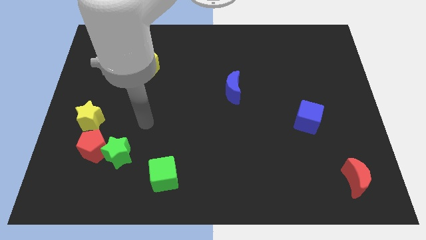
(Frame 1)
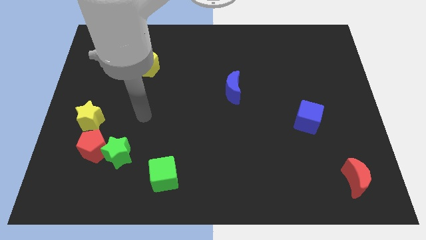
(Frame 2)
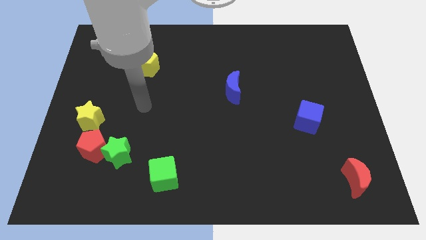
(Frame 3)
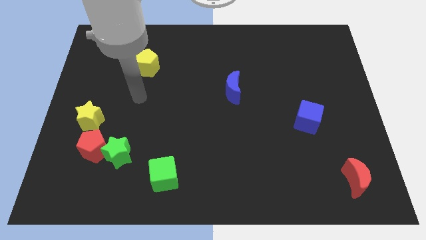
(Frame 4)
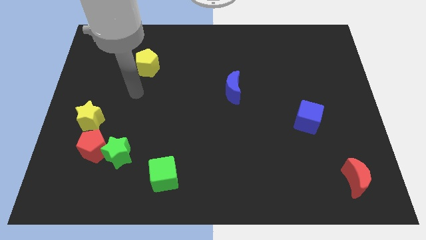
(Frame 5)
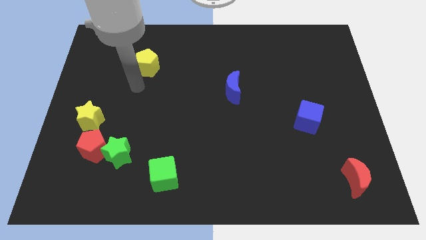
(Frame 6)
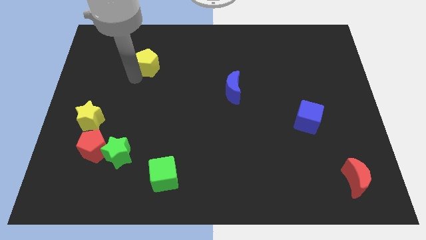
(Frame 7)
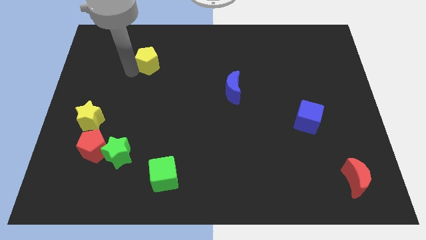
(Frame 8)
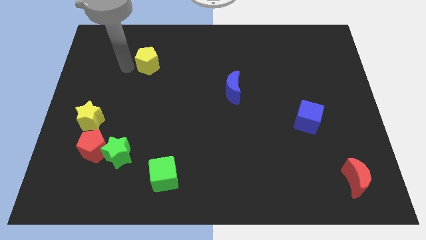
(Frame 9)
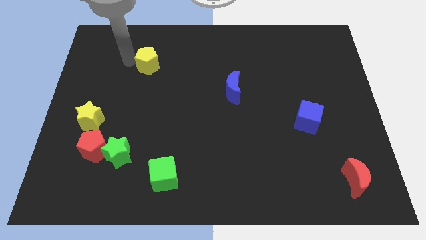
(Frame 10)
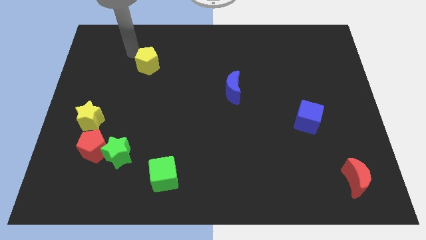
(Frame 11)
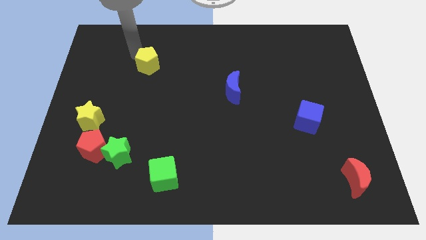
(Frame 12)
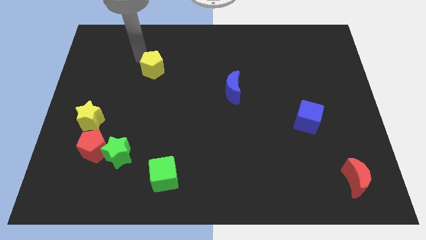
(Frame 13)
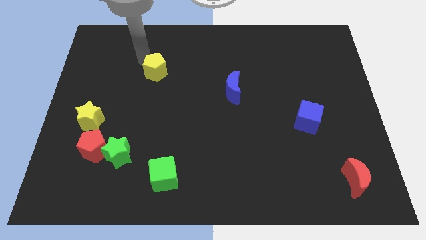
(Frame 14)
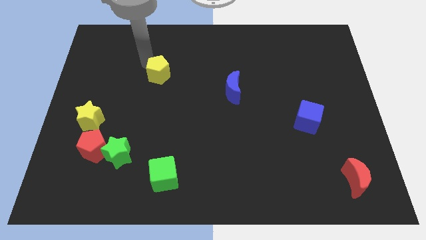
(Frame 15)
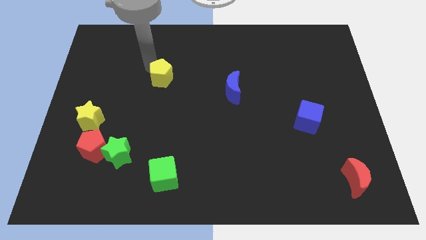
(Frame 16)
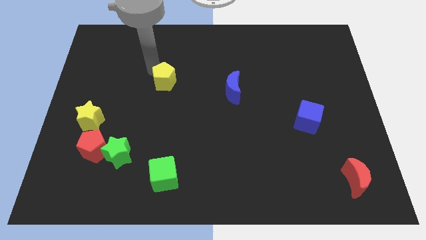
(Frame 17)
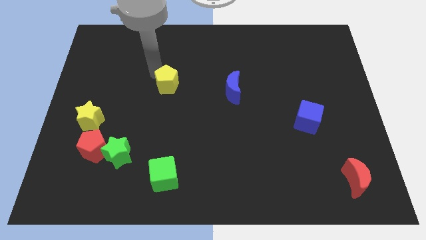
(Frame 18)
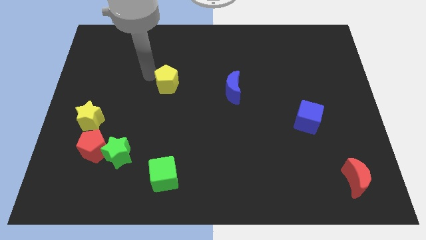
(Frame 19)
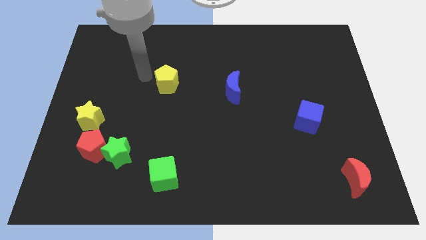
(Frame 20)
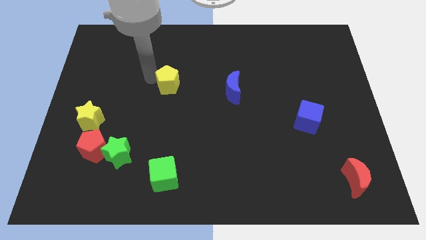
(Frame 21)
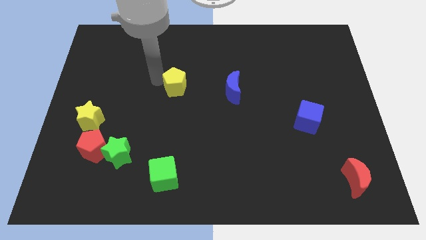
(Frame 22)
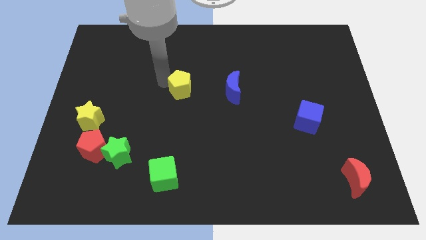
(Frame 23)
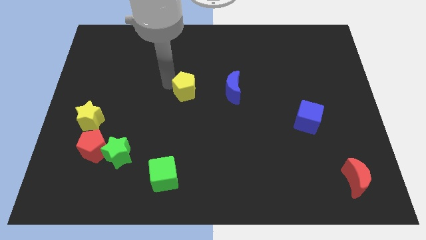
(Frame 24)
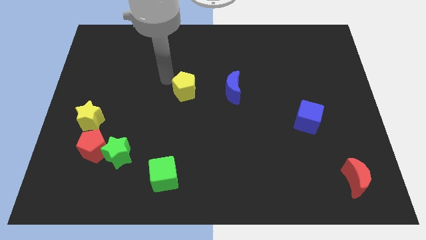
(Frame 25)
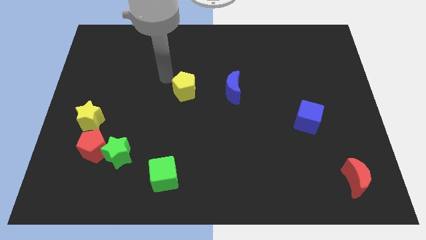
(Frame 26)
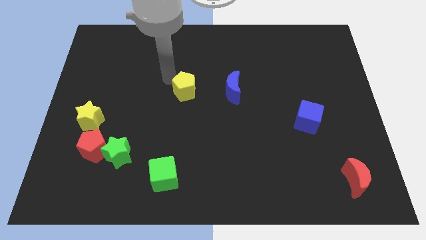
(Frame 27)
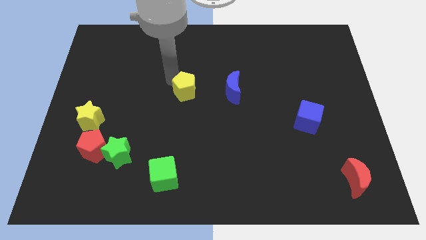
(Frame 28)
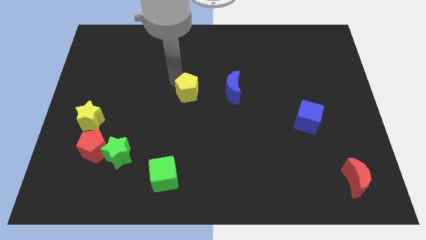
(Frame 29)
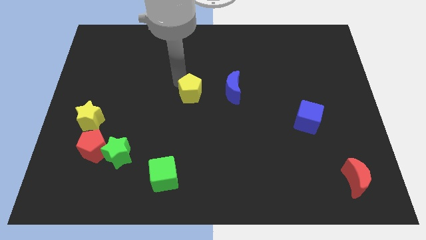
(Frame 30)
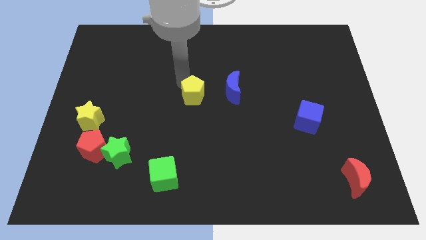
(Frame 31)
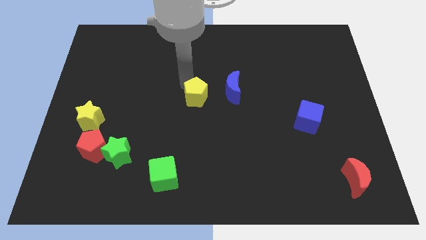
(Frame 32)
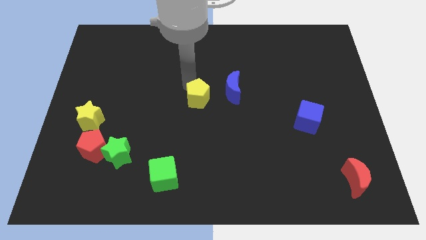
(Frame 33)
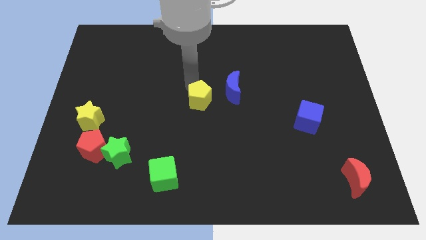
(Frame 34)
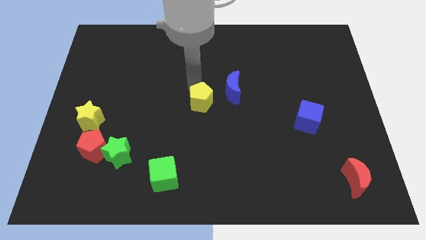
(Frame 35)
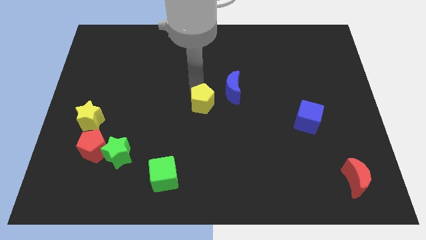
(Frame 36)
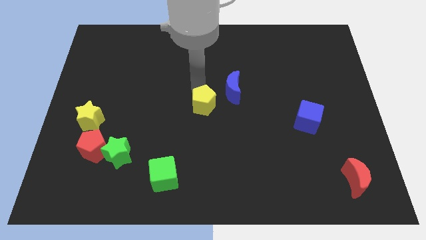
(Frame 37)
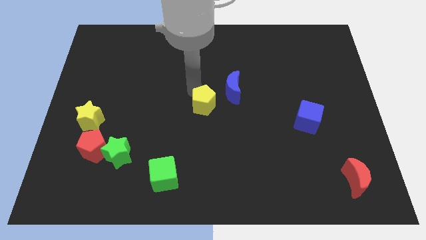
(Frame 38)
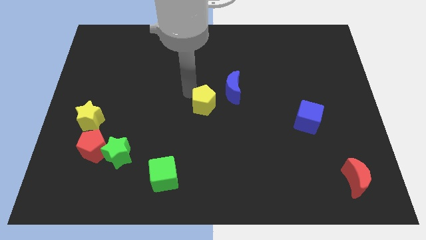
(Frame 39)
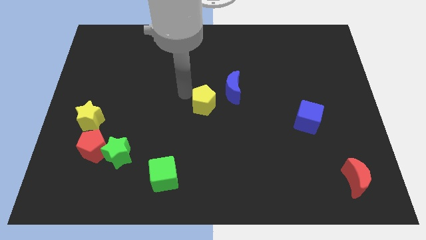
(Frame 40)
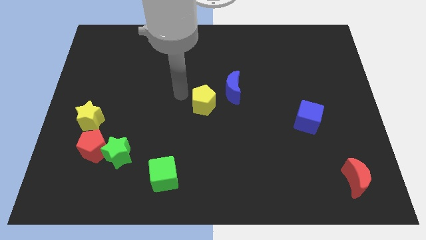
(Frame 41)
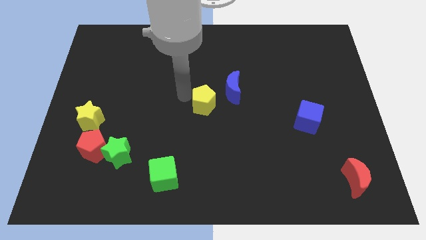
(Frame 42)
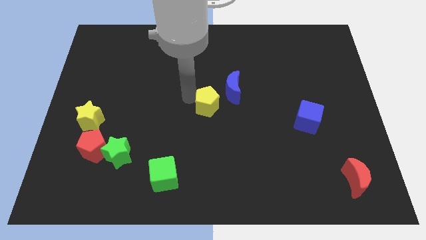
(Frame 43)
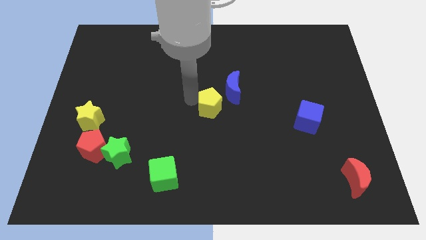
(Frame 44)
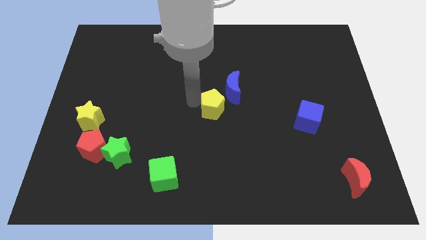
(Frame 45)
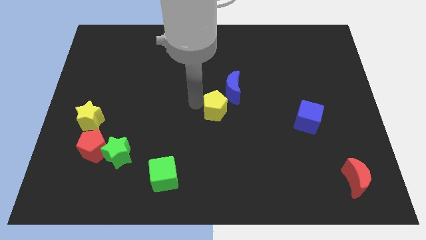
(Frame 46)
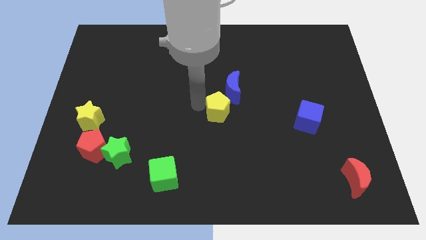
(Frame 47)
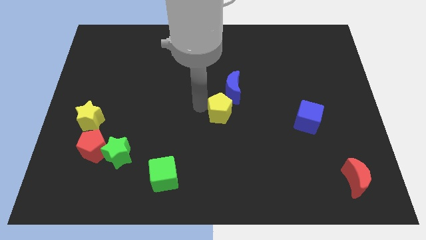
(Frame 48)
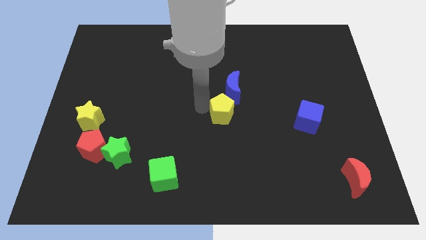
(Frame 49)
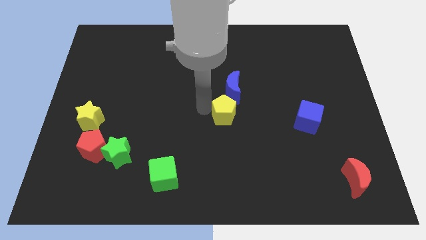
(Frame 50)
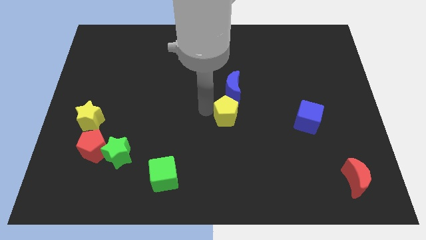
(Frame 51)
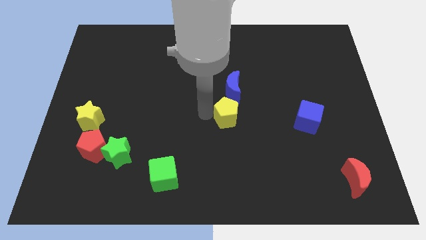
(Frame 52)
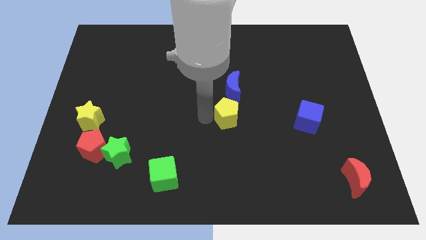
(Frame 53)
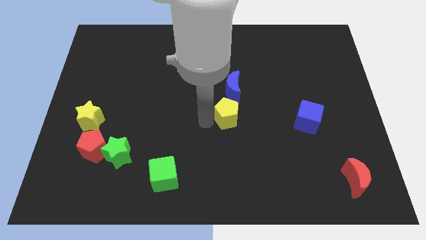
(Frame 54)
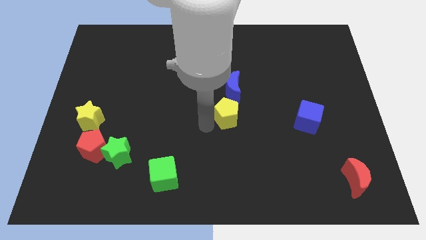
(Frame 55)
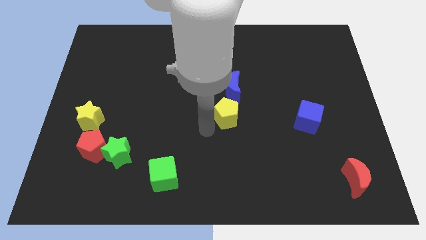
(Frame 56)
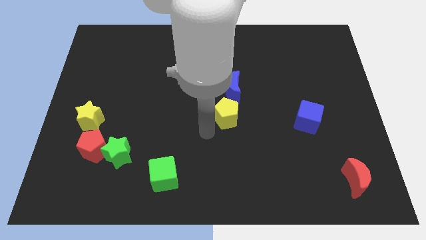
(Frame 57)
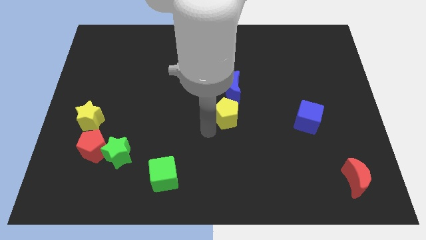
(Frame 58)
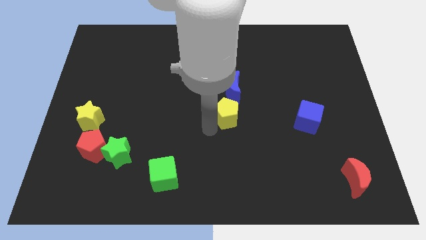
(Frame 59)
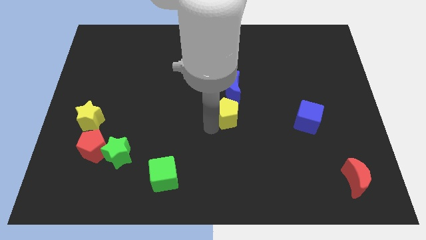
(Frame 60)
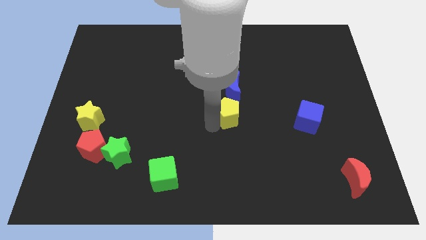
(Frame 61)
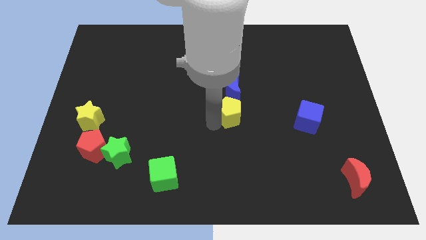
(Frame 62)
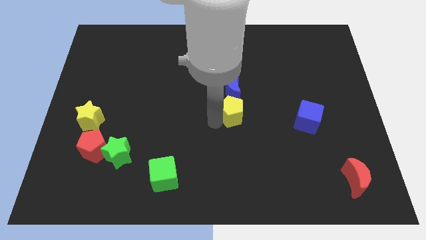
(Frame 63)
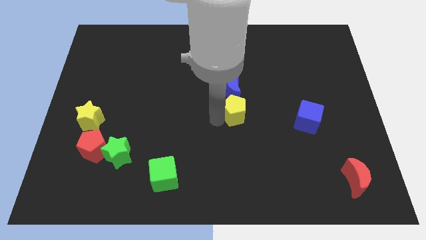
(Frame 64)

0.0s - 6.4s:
slide the yellow pentagon to the bottom right of the blue moon
